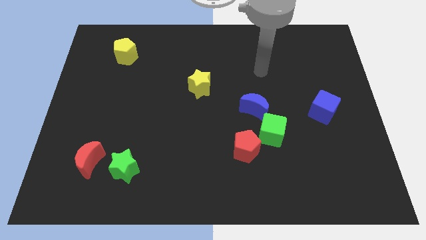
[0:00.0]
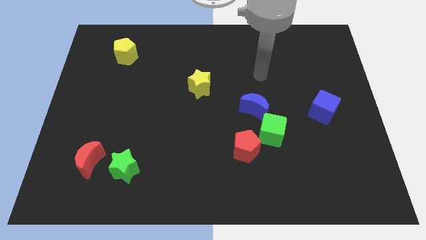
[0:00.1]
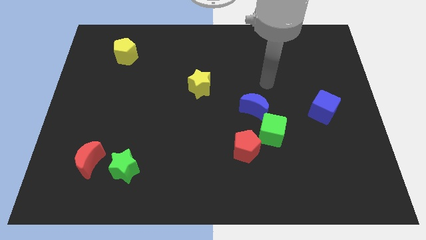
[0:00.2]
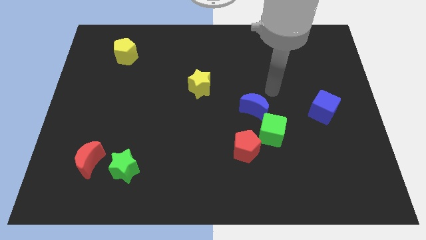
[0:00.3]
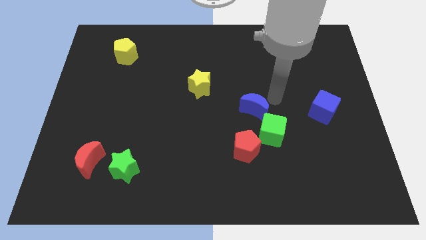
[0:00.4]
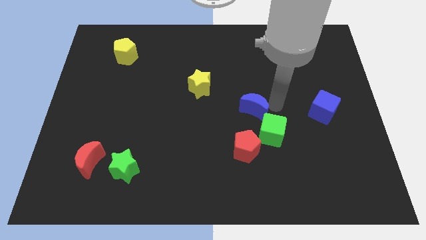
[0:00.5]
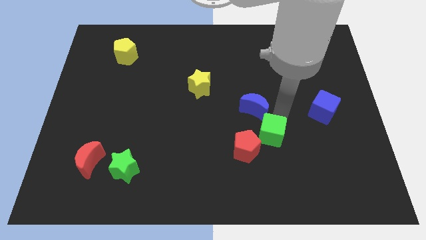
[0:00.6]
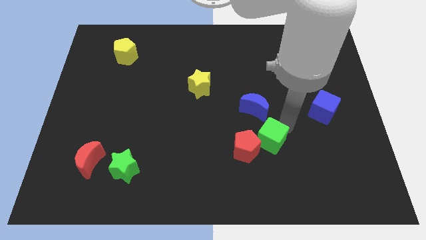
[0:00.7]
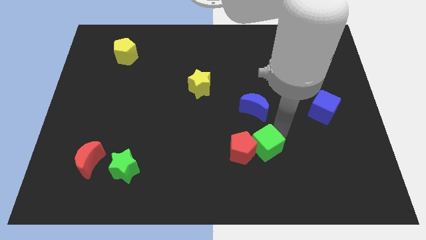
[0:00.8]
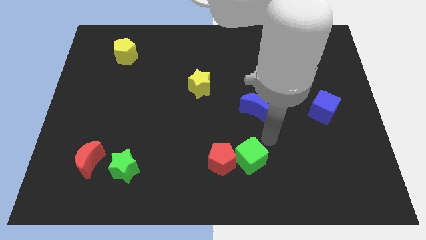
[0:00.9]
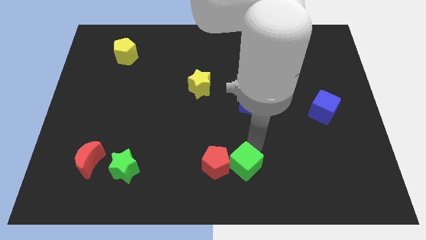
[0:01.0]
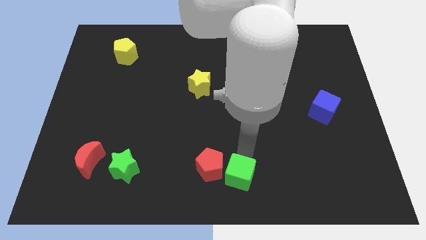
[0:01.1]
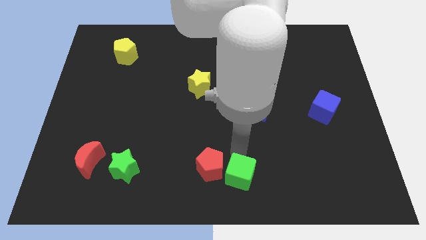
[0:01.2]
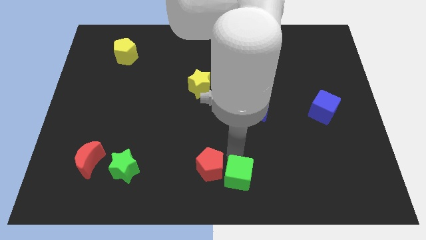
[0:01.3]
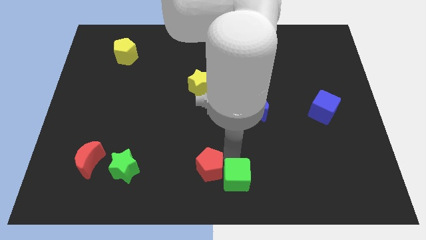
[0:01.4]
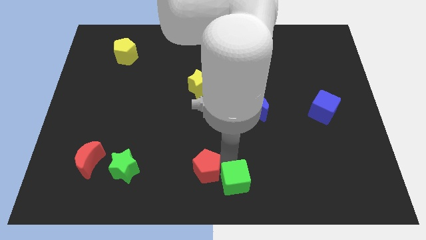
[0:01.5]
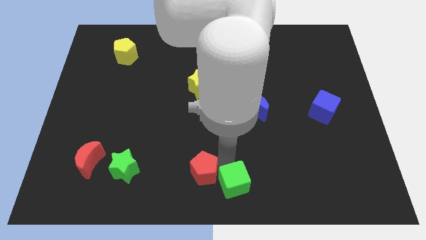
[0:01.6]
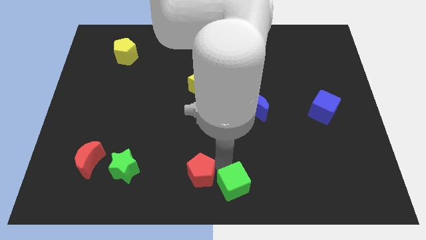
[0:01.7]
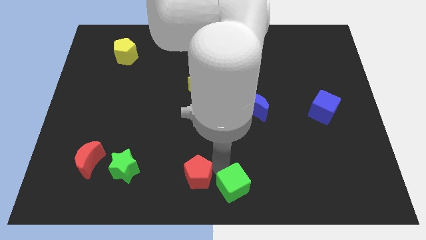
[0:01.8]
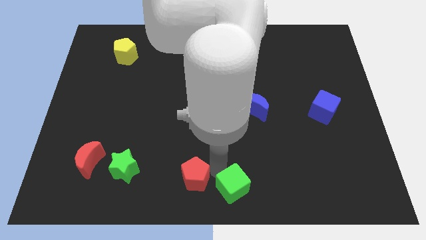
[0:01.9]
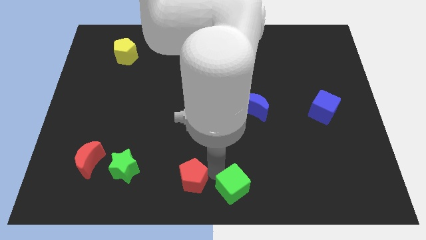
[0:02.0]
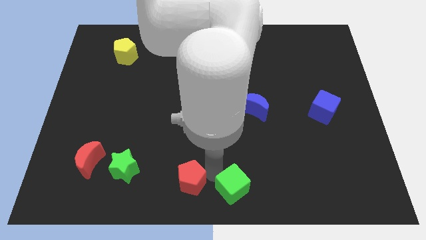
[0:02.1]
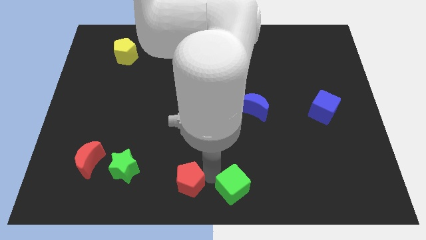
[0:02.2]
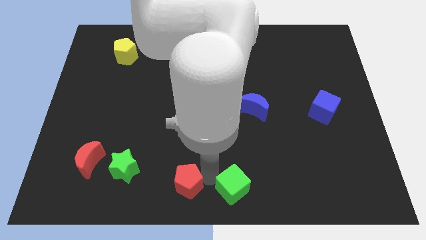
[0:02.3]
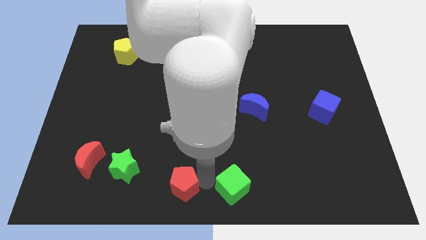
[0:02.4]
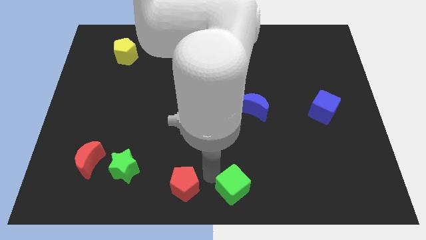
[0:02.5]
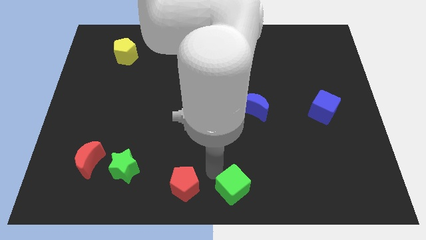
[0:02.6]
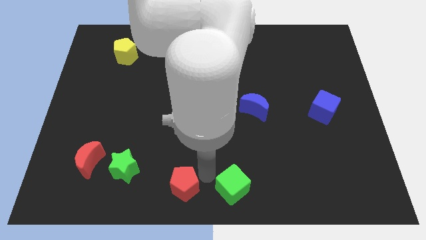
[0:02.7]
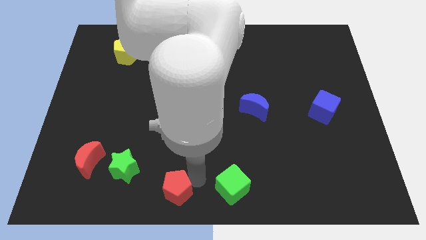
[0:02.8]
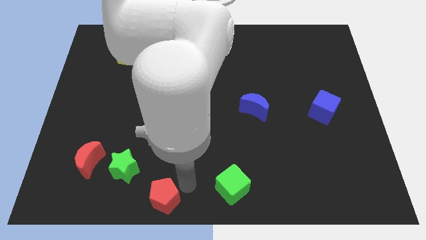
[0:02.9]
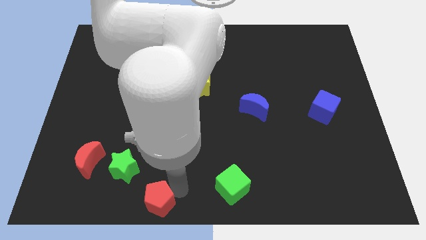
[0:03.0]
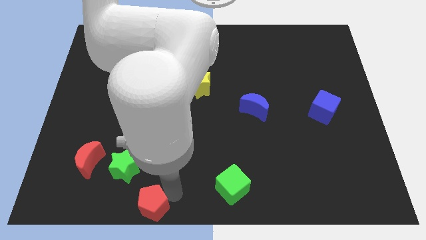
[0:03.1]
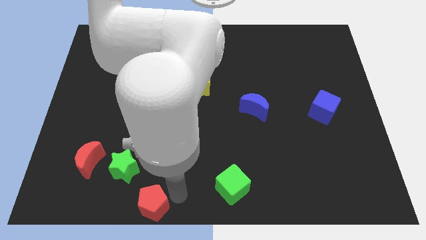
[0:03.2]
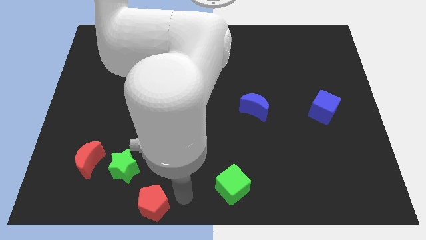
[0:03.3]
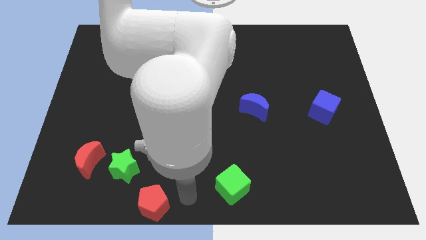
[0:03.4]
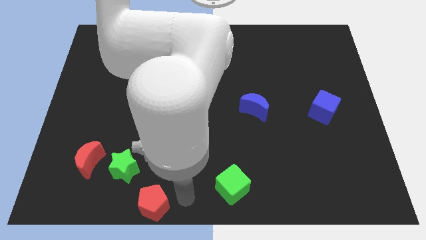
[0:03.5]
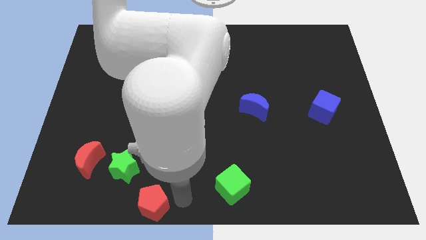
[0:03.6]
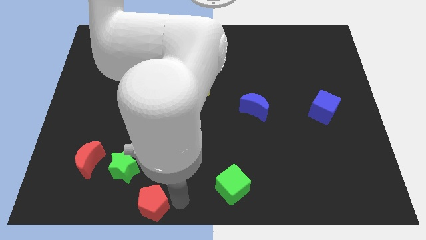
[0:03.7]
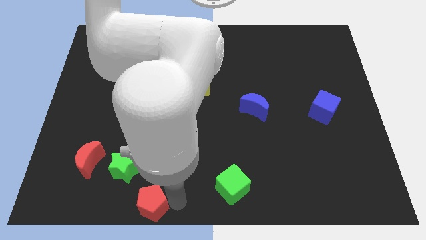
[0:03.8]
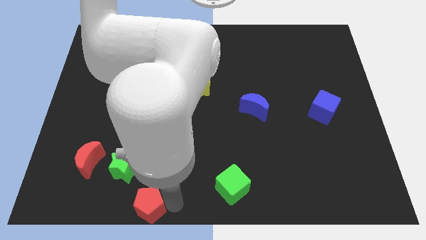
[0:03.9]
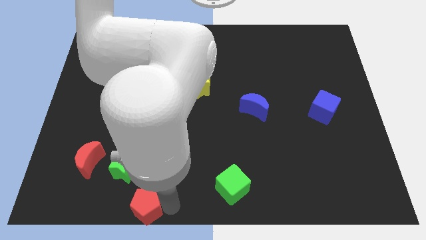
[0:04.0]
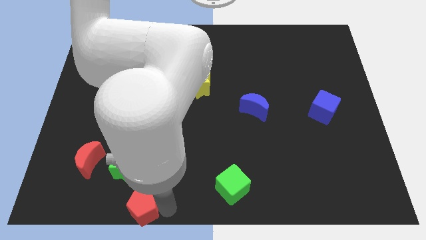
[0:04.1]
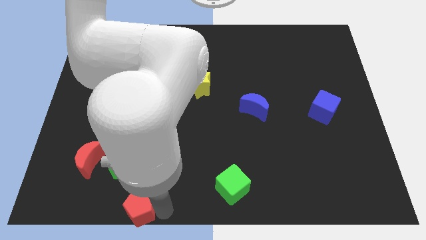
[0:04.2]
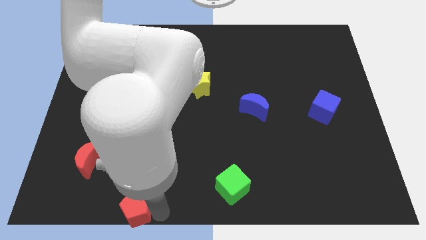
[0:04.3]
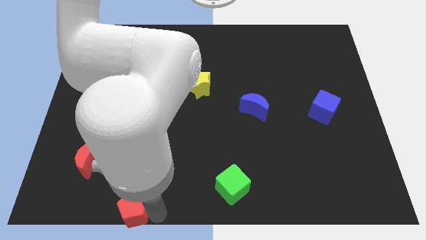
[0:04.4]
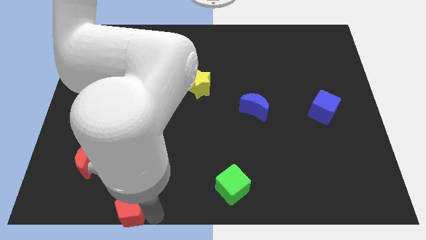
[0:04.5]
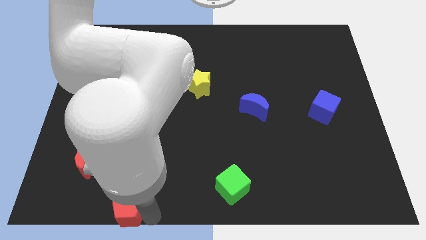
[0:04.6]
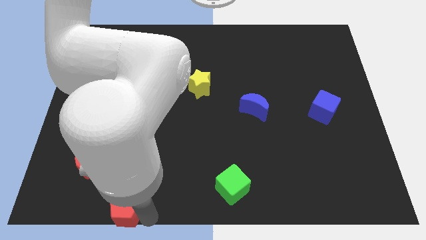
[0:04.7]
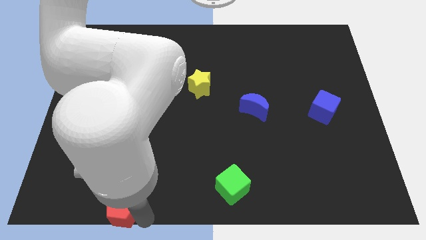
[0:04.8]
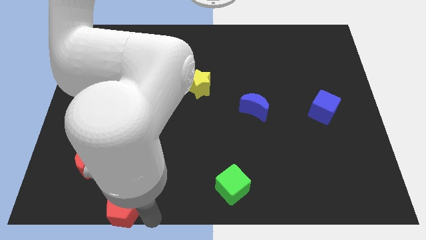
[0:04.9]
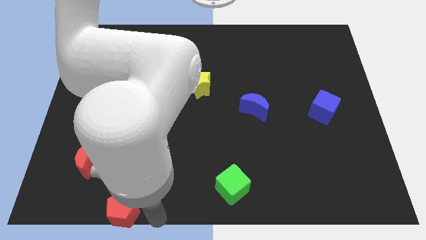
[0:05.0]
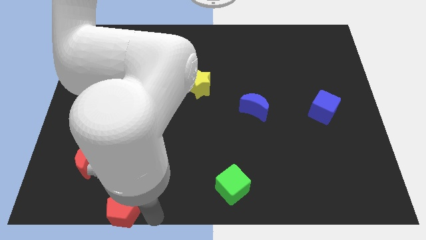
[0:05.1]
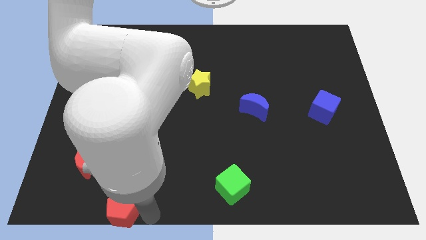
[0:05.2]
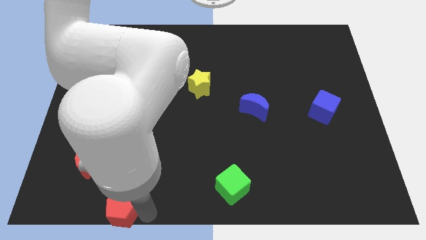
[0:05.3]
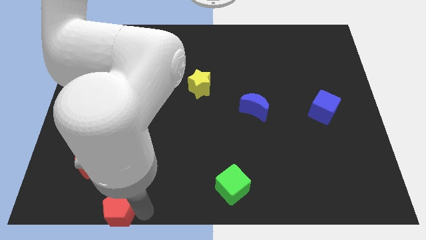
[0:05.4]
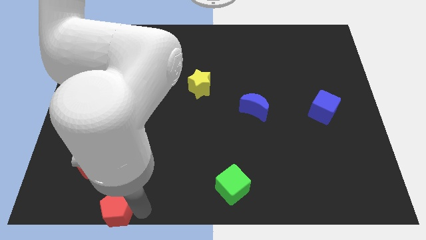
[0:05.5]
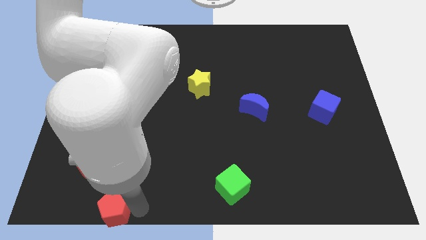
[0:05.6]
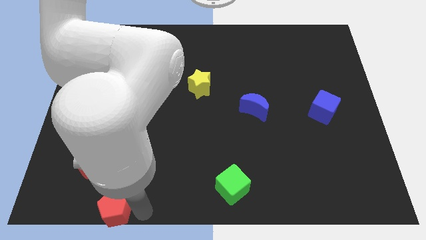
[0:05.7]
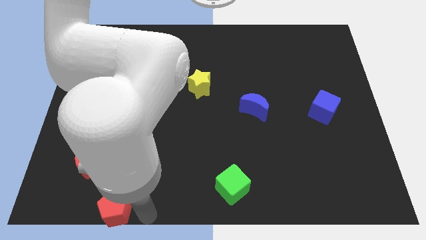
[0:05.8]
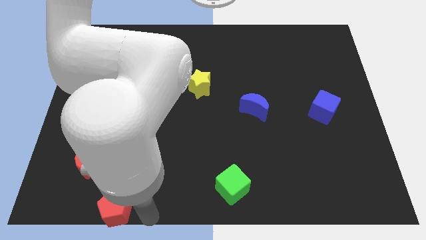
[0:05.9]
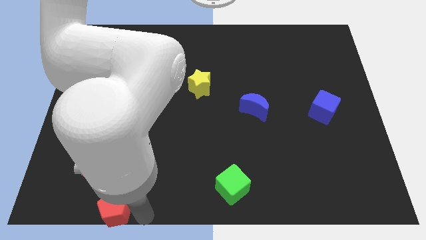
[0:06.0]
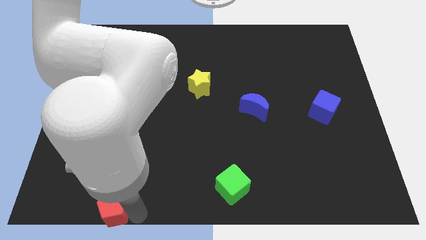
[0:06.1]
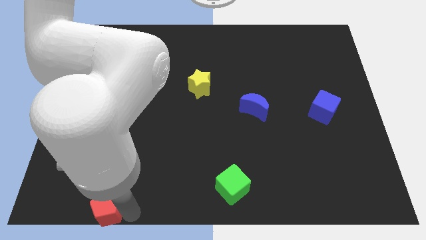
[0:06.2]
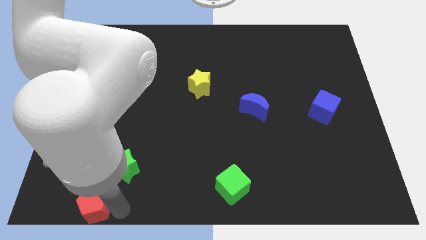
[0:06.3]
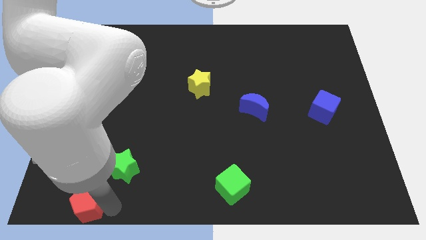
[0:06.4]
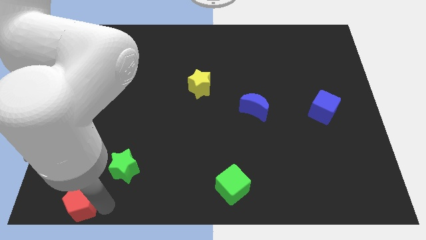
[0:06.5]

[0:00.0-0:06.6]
push the red pentagon to the bottom left
